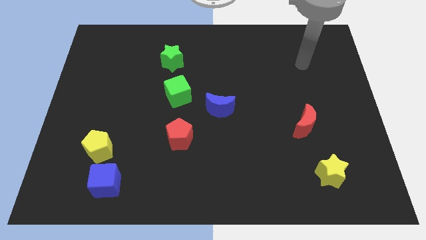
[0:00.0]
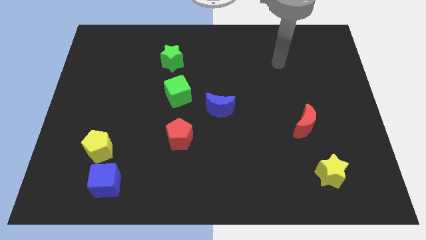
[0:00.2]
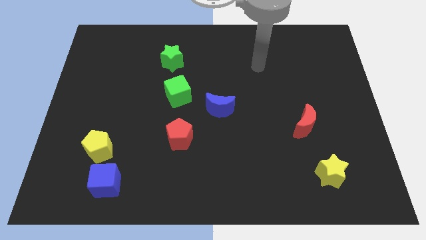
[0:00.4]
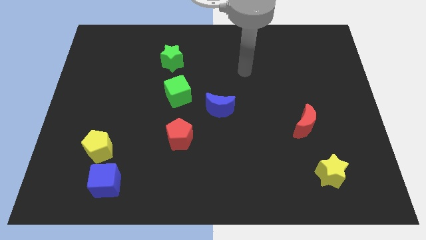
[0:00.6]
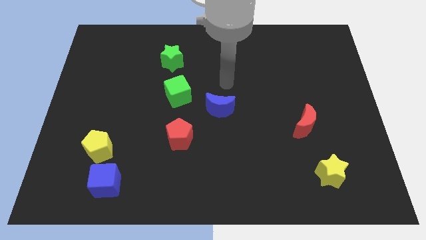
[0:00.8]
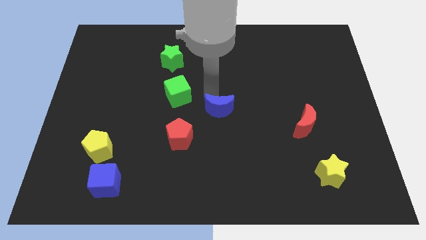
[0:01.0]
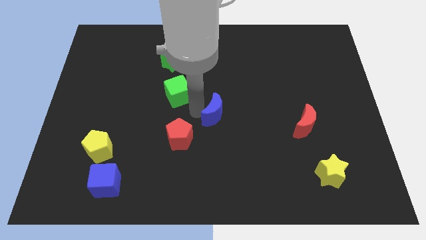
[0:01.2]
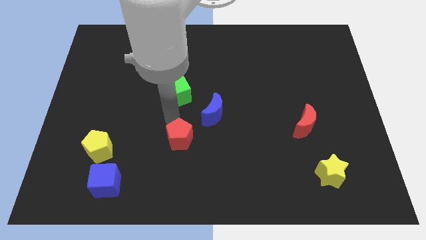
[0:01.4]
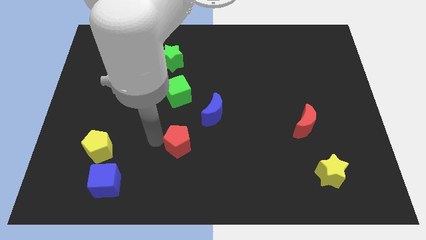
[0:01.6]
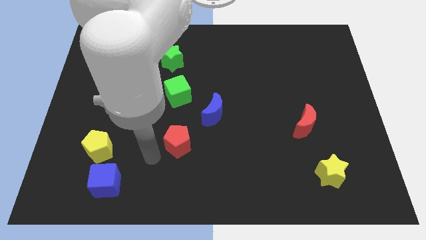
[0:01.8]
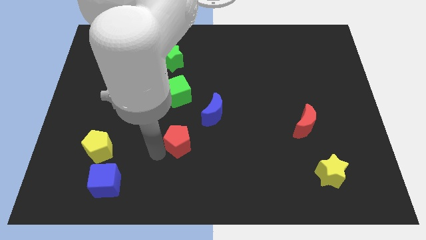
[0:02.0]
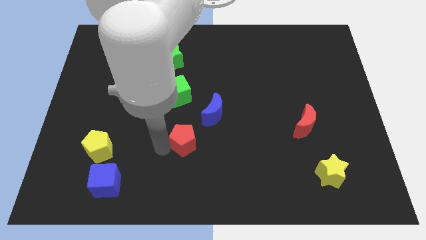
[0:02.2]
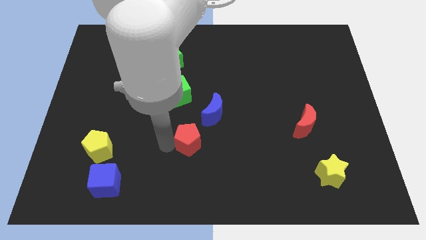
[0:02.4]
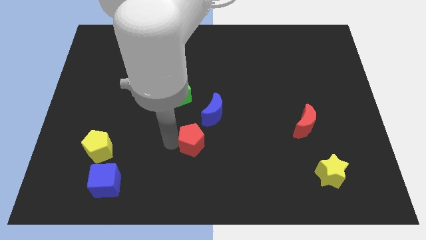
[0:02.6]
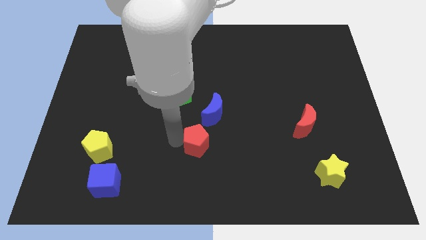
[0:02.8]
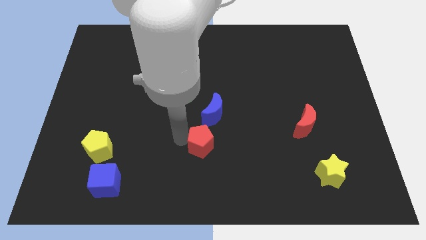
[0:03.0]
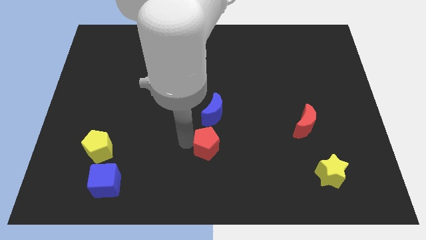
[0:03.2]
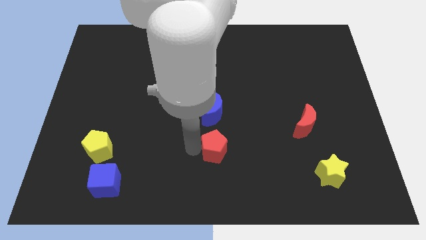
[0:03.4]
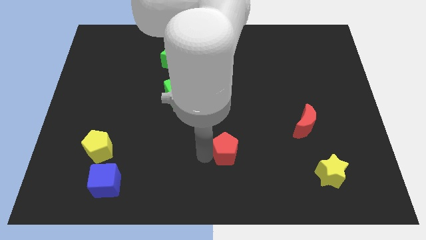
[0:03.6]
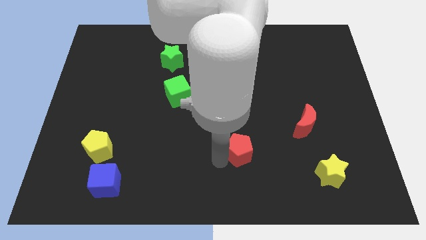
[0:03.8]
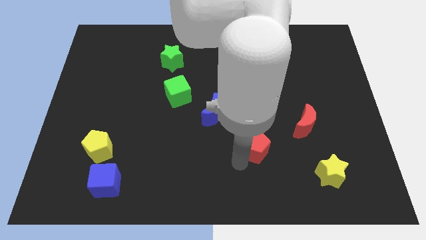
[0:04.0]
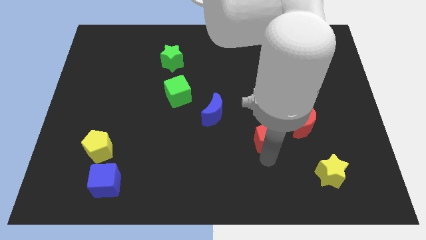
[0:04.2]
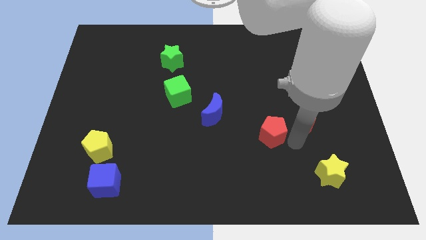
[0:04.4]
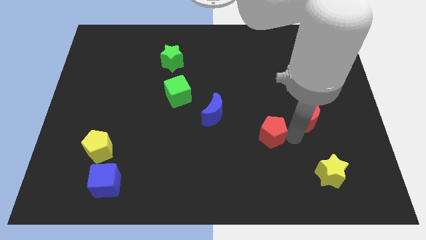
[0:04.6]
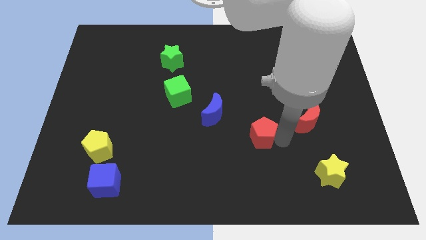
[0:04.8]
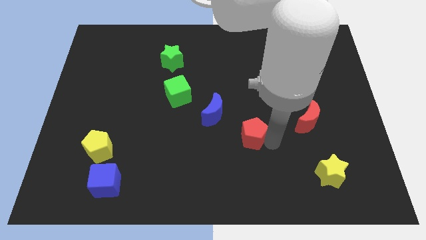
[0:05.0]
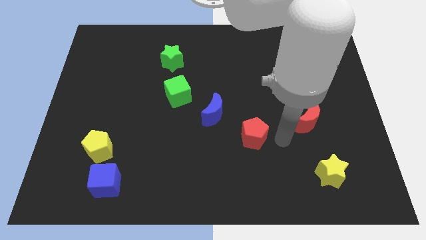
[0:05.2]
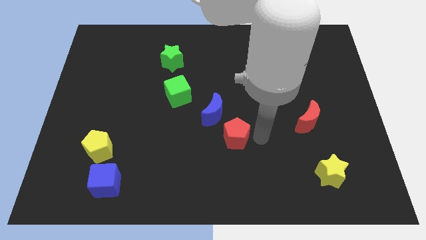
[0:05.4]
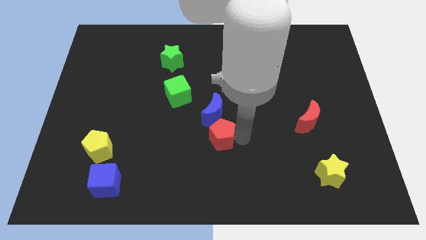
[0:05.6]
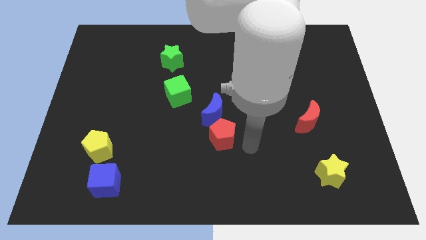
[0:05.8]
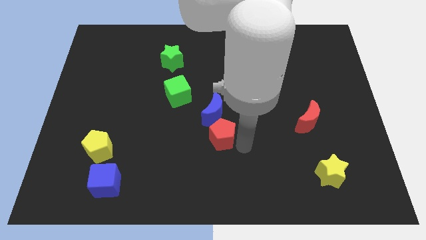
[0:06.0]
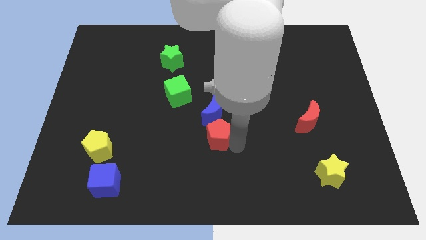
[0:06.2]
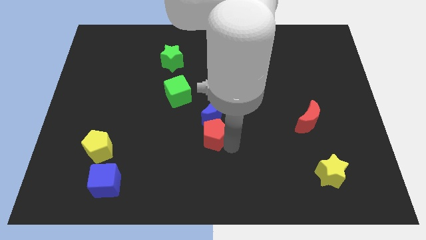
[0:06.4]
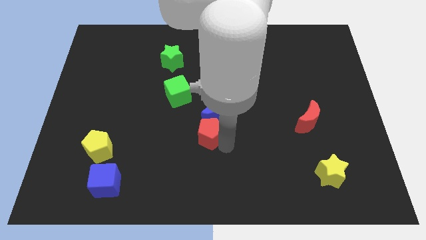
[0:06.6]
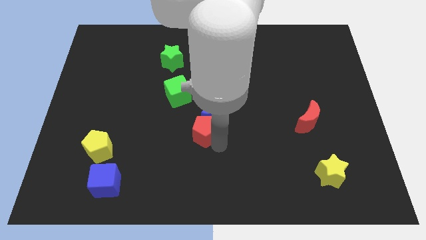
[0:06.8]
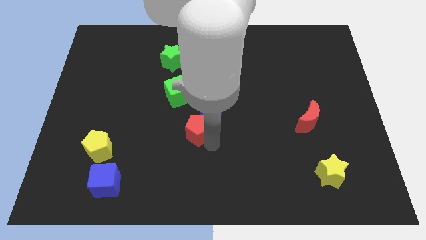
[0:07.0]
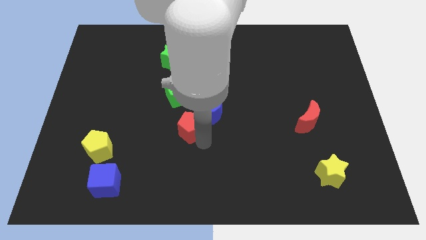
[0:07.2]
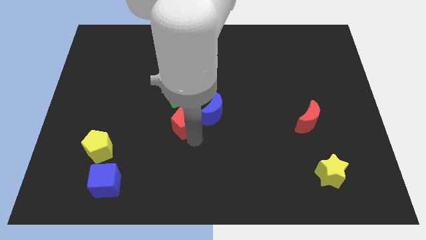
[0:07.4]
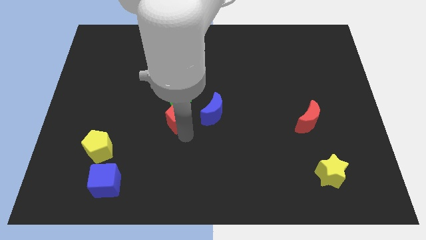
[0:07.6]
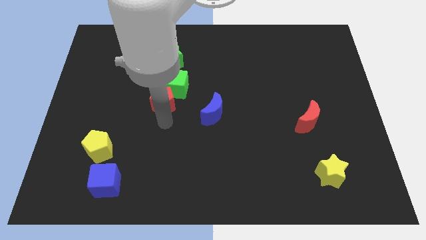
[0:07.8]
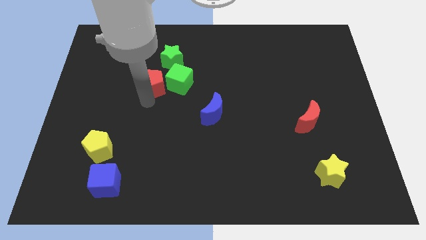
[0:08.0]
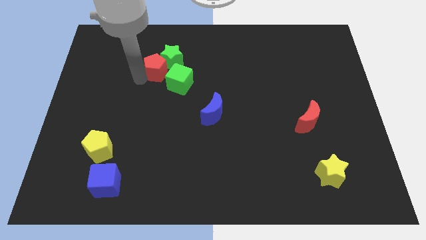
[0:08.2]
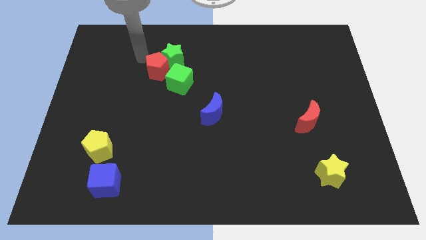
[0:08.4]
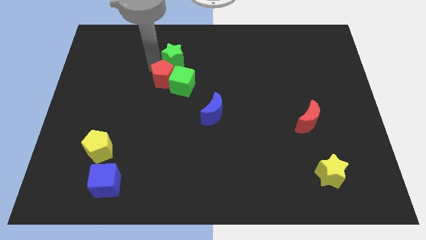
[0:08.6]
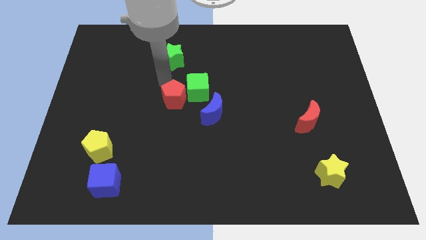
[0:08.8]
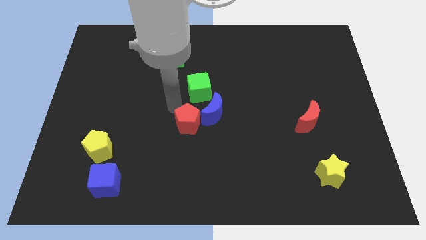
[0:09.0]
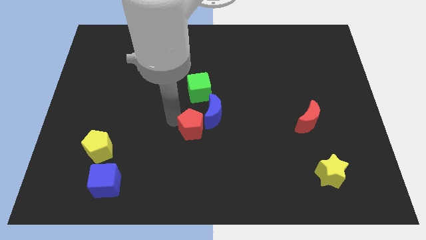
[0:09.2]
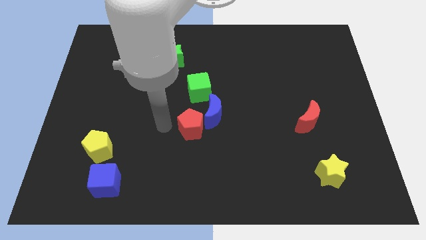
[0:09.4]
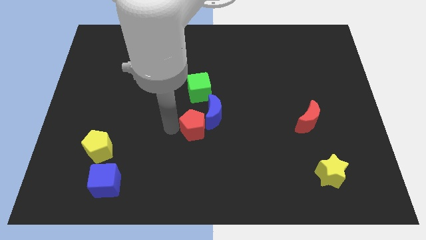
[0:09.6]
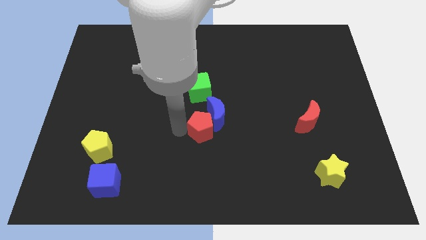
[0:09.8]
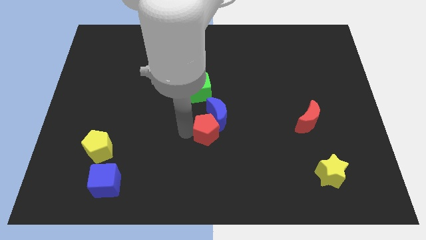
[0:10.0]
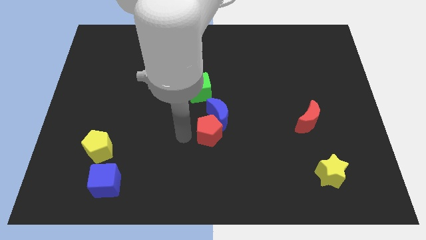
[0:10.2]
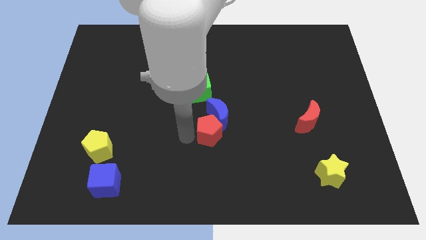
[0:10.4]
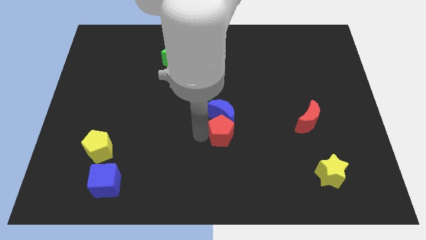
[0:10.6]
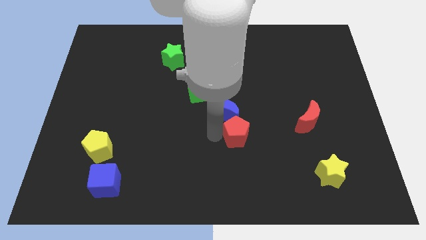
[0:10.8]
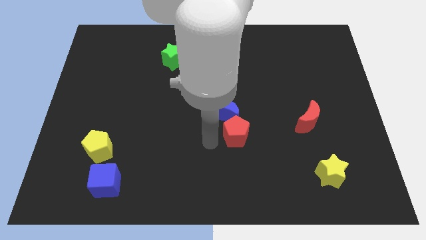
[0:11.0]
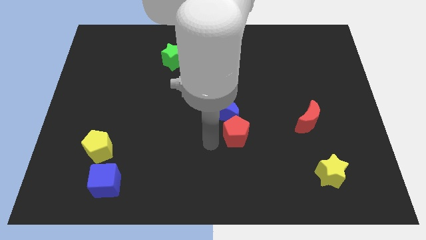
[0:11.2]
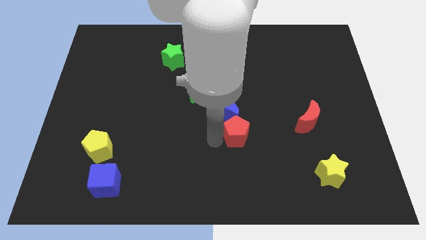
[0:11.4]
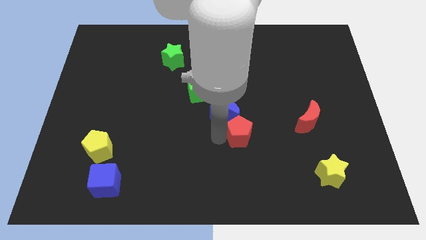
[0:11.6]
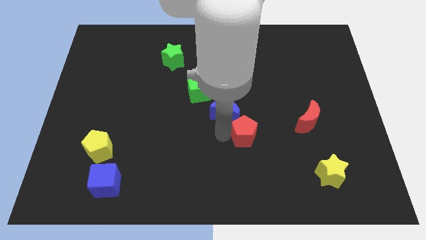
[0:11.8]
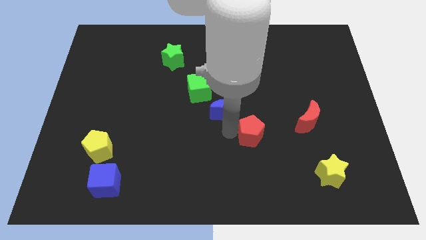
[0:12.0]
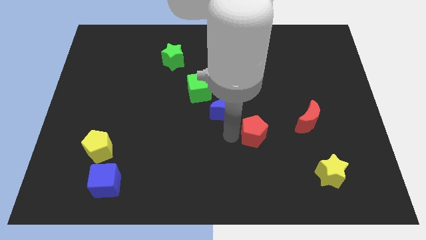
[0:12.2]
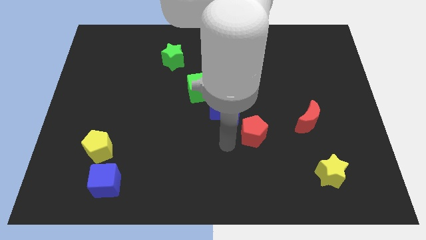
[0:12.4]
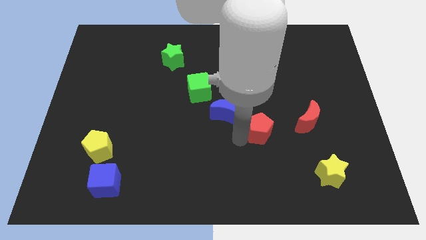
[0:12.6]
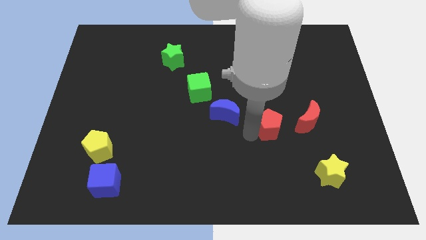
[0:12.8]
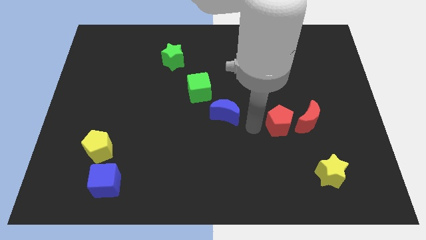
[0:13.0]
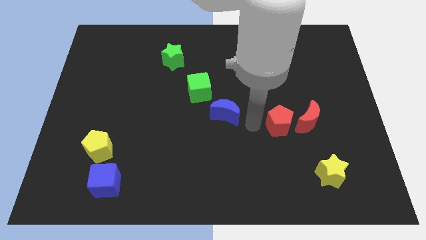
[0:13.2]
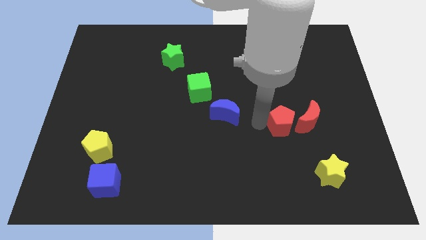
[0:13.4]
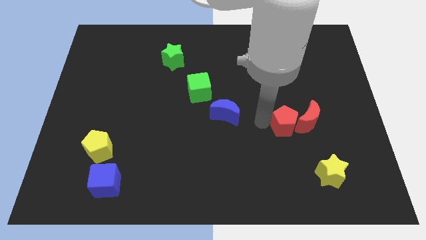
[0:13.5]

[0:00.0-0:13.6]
put the red pentagon next to the red moon
